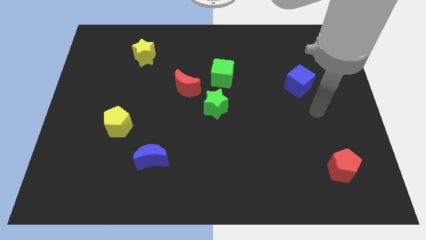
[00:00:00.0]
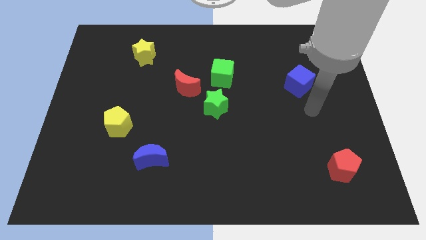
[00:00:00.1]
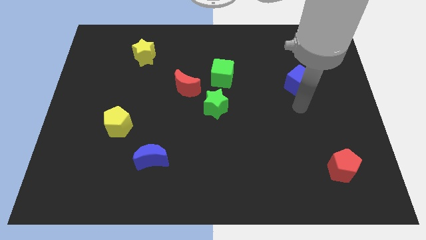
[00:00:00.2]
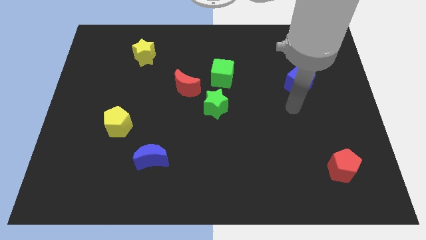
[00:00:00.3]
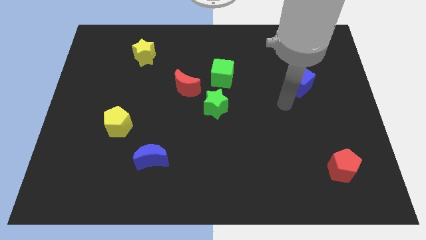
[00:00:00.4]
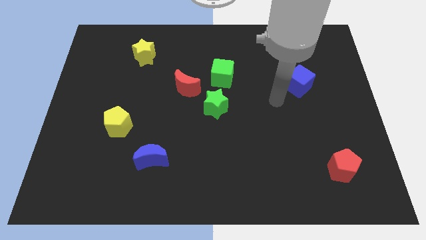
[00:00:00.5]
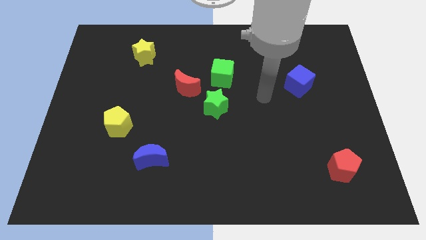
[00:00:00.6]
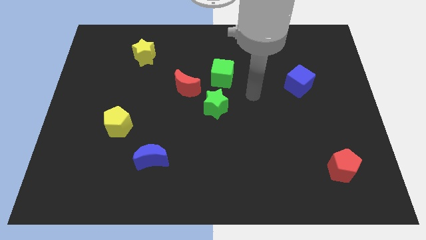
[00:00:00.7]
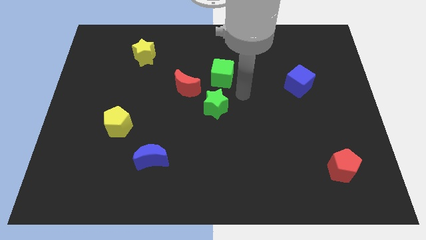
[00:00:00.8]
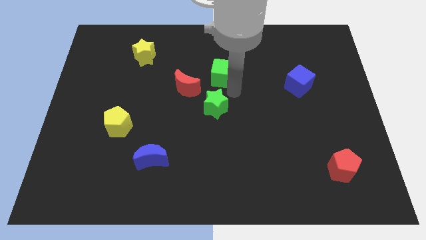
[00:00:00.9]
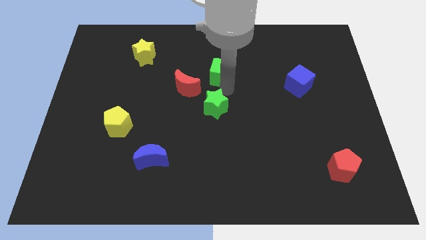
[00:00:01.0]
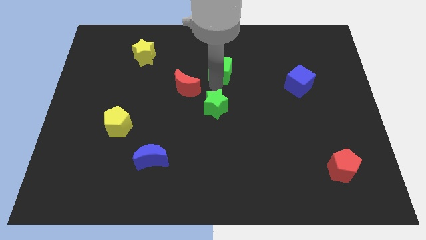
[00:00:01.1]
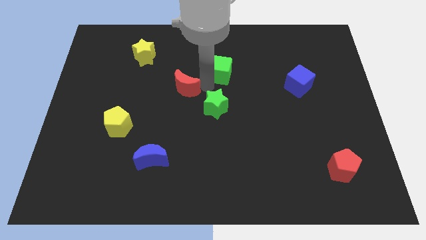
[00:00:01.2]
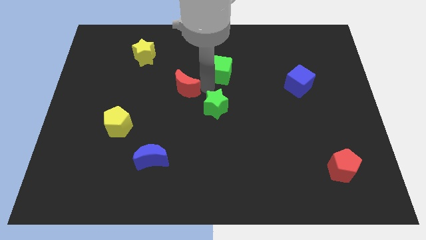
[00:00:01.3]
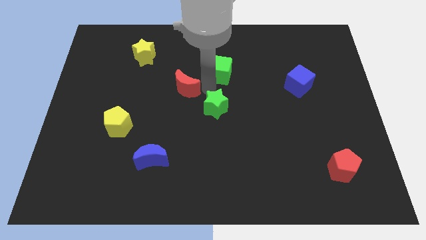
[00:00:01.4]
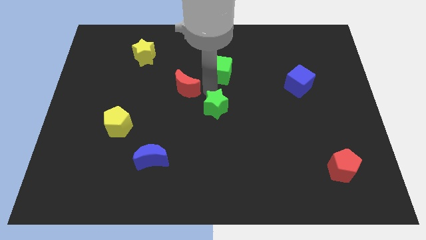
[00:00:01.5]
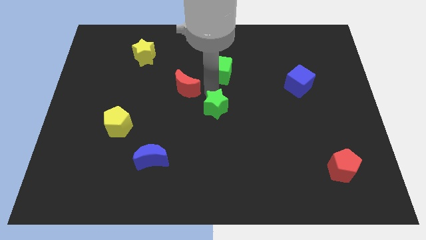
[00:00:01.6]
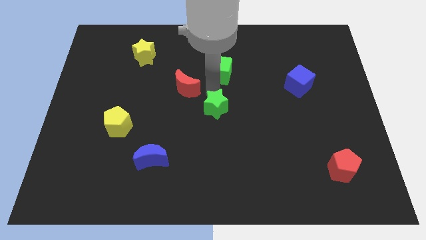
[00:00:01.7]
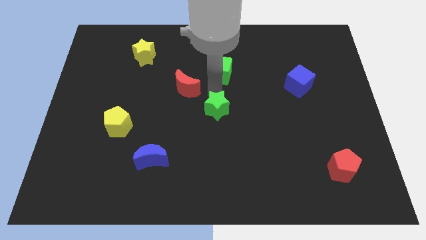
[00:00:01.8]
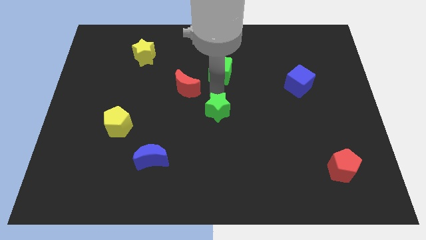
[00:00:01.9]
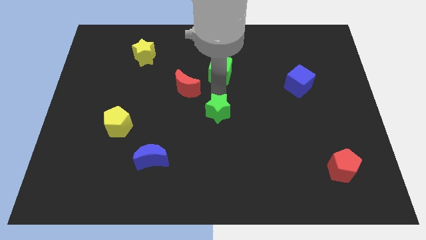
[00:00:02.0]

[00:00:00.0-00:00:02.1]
move the green star away from the red moon and green cube

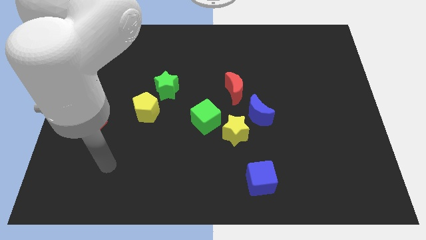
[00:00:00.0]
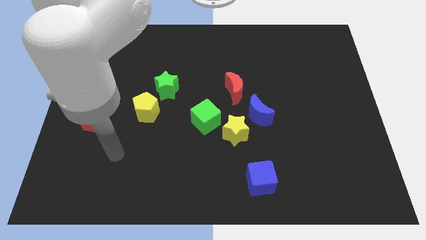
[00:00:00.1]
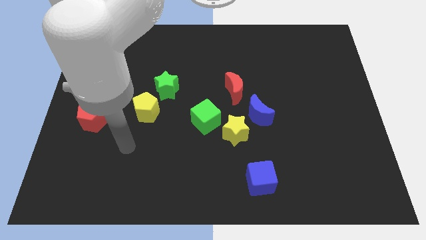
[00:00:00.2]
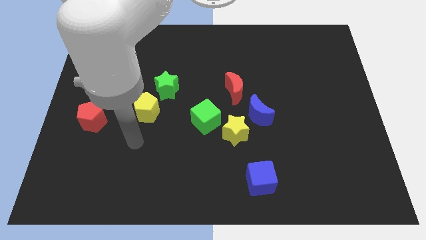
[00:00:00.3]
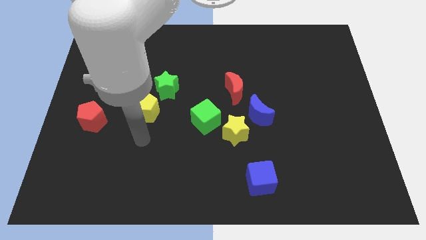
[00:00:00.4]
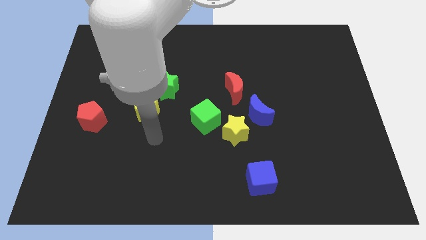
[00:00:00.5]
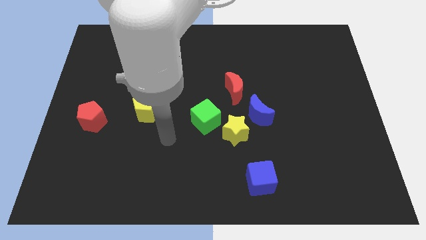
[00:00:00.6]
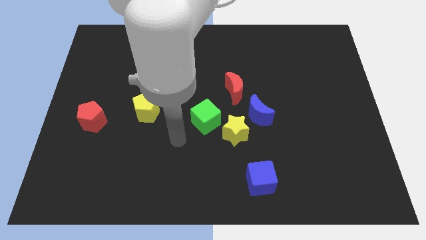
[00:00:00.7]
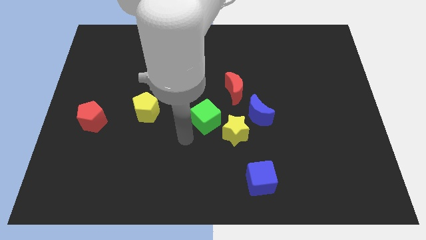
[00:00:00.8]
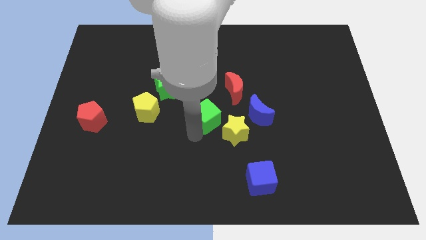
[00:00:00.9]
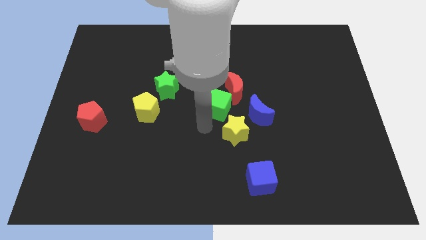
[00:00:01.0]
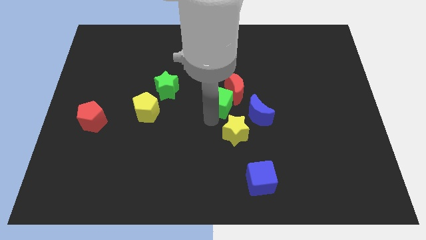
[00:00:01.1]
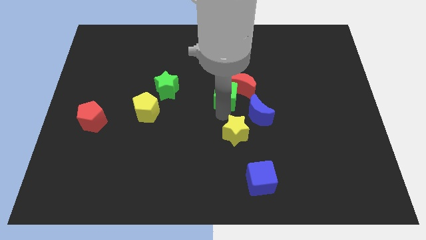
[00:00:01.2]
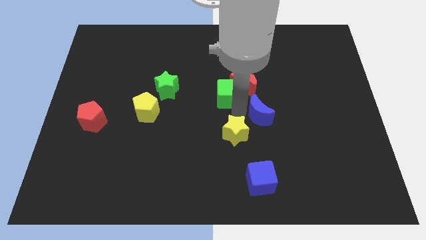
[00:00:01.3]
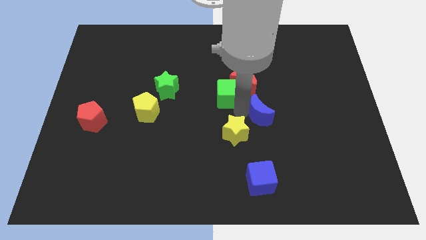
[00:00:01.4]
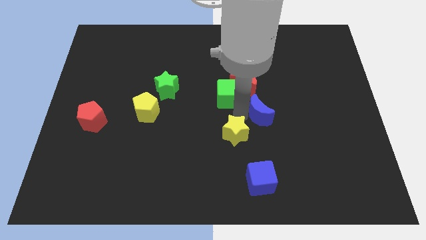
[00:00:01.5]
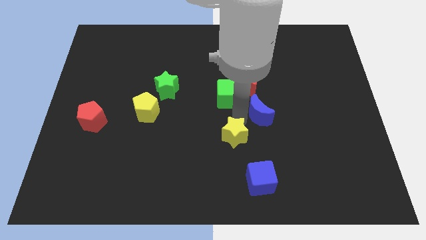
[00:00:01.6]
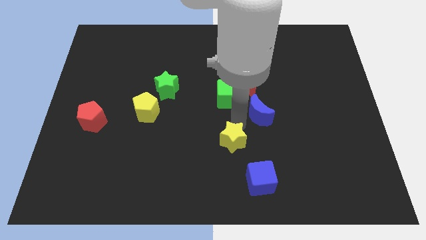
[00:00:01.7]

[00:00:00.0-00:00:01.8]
move the yellow star away from the blue moon and green cube

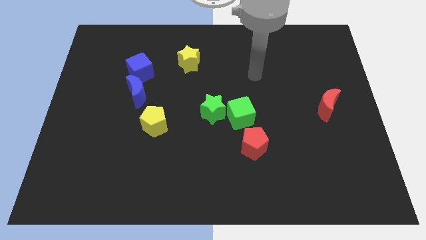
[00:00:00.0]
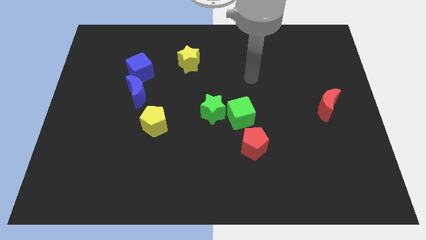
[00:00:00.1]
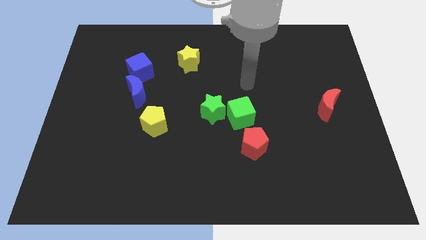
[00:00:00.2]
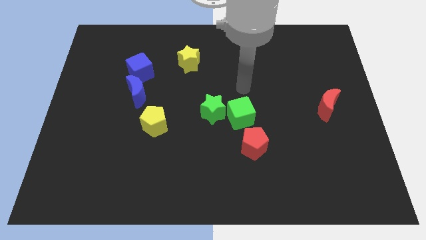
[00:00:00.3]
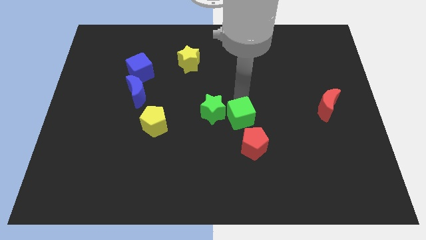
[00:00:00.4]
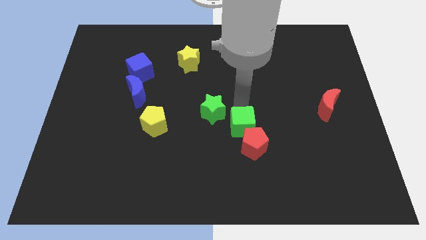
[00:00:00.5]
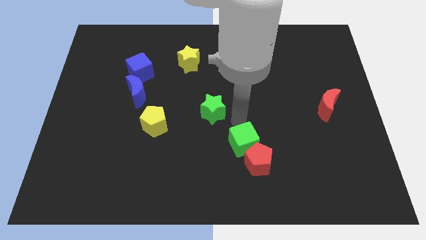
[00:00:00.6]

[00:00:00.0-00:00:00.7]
pull the green star apart from the green cube

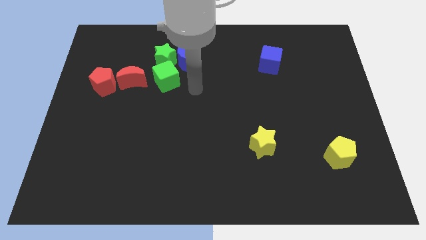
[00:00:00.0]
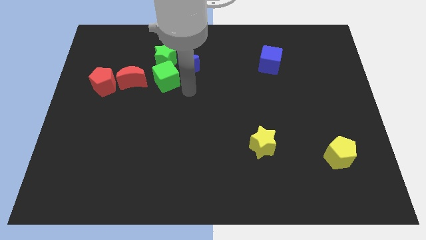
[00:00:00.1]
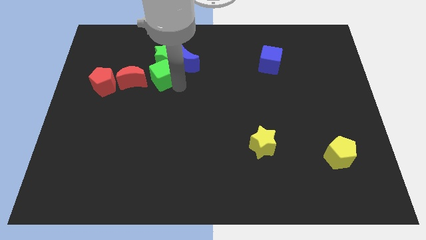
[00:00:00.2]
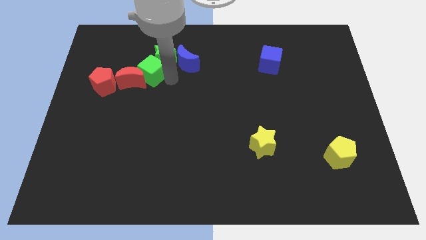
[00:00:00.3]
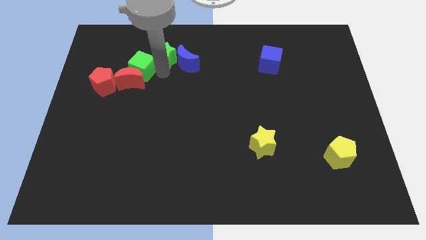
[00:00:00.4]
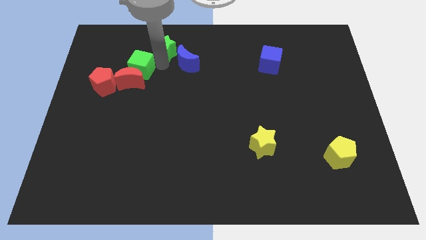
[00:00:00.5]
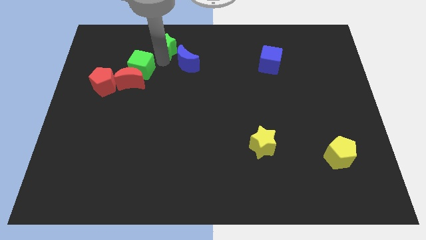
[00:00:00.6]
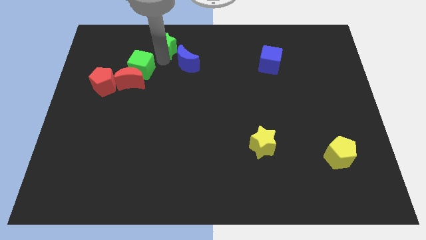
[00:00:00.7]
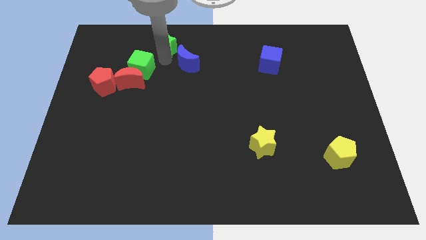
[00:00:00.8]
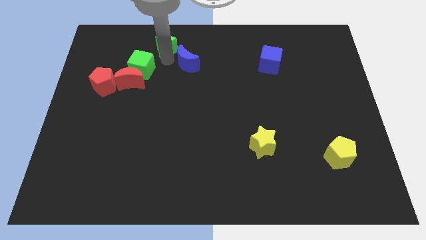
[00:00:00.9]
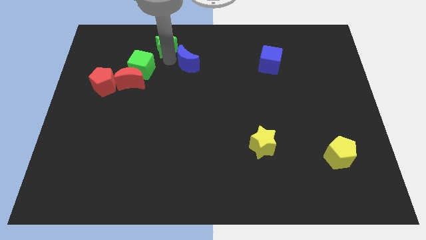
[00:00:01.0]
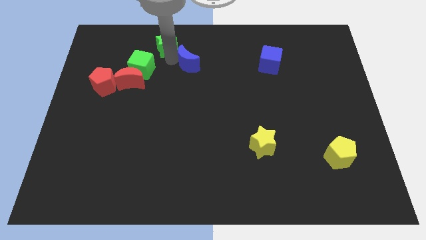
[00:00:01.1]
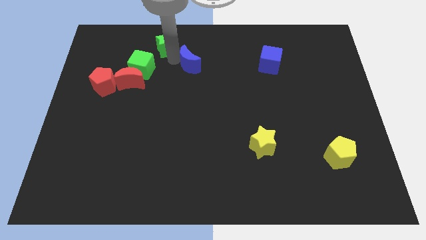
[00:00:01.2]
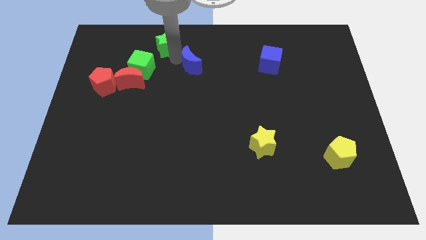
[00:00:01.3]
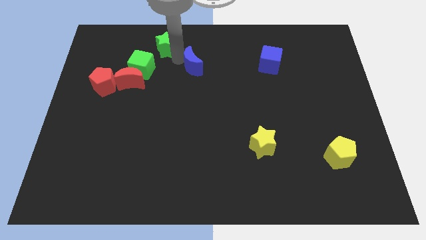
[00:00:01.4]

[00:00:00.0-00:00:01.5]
separate the blue moon from the green star and green cube

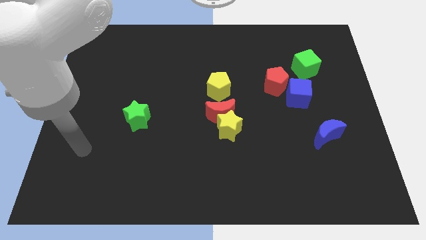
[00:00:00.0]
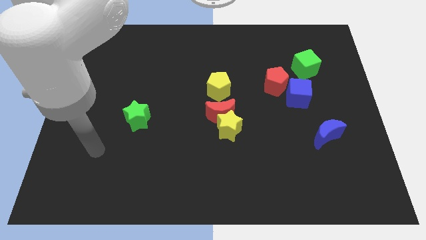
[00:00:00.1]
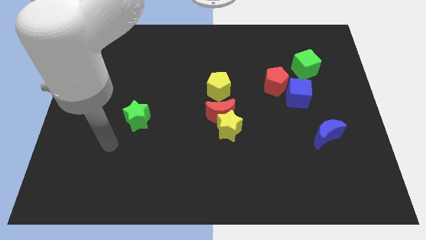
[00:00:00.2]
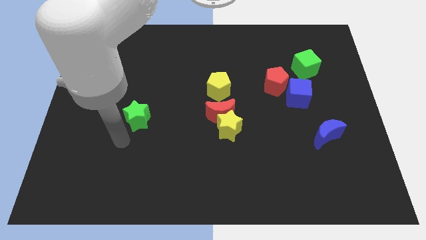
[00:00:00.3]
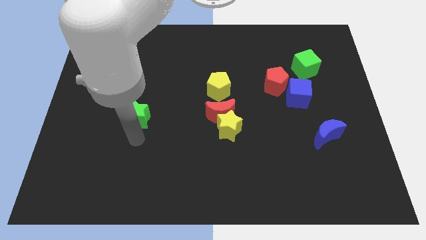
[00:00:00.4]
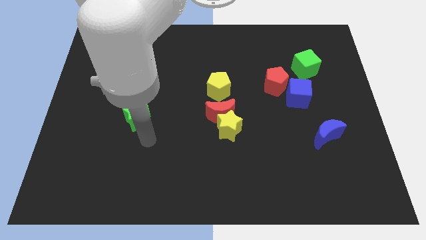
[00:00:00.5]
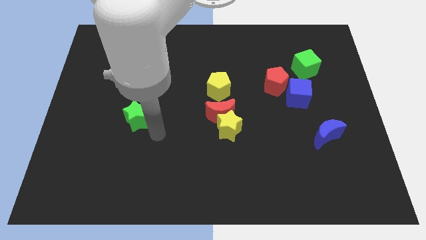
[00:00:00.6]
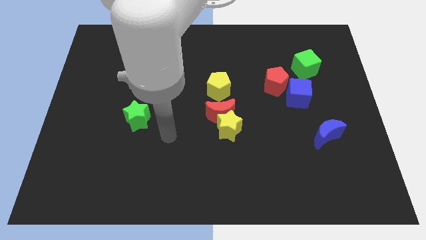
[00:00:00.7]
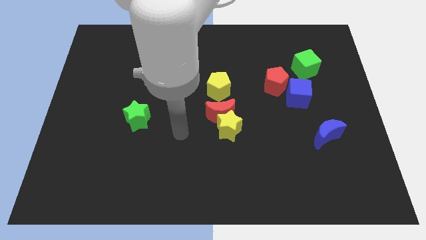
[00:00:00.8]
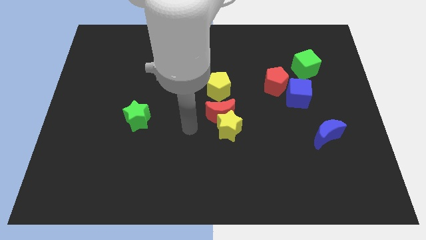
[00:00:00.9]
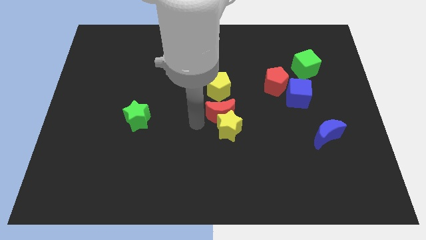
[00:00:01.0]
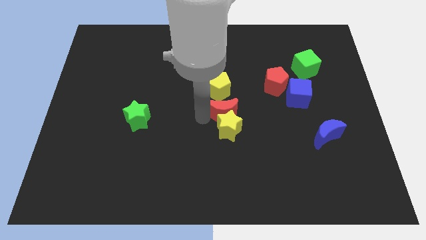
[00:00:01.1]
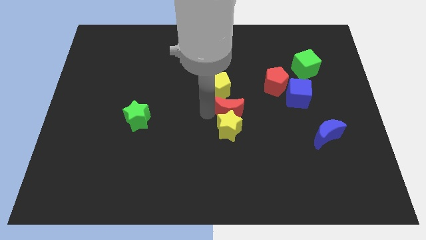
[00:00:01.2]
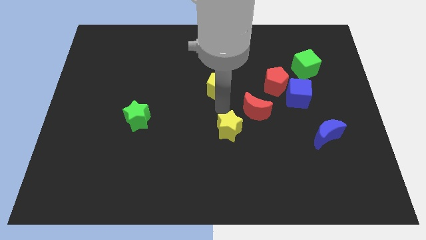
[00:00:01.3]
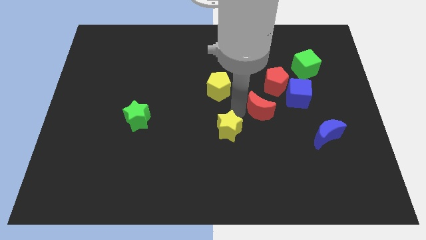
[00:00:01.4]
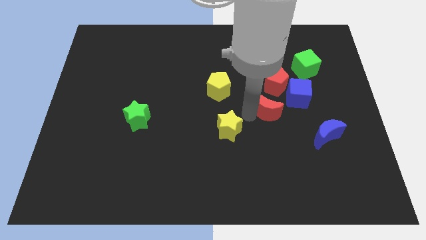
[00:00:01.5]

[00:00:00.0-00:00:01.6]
move the yellow star away from the red moon

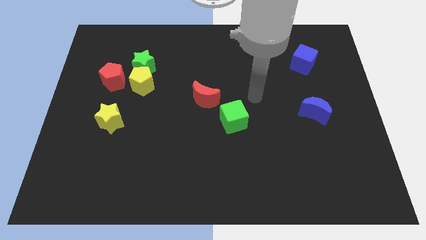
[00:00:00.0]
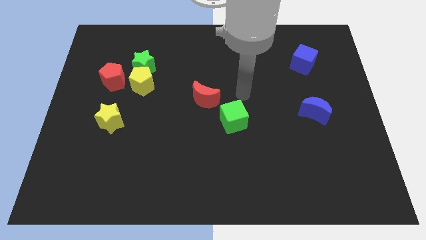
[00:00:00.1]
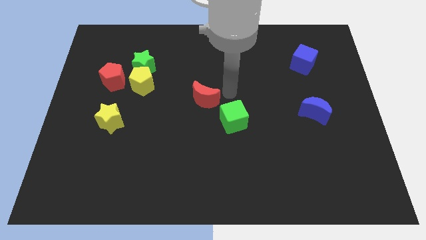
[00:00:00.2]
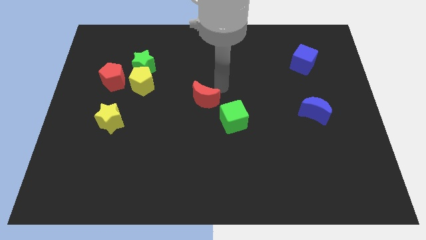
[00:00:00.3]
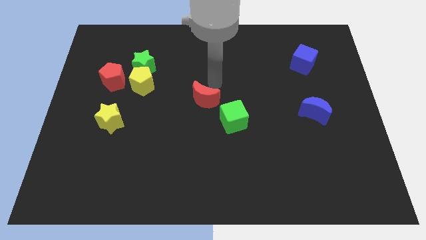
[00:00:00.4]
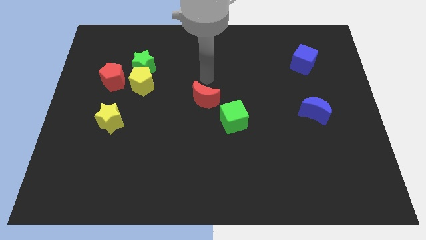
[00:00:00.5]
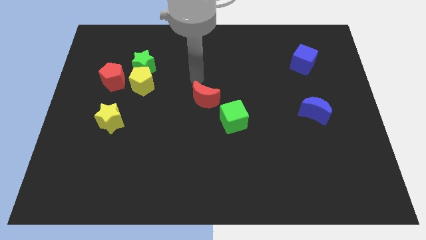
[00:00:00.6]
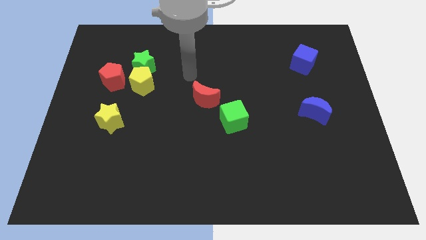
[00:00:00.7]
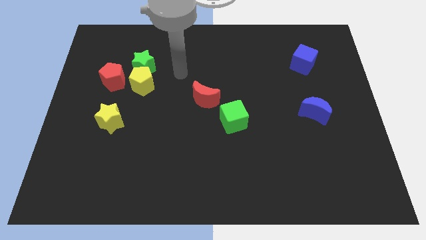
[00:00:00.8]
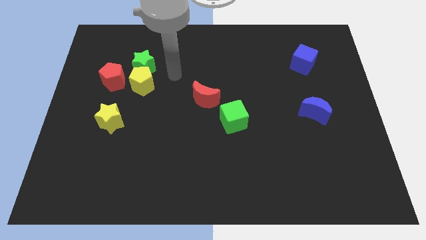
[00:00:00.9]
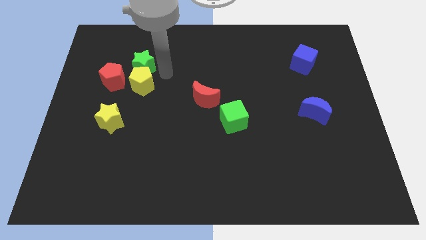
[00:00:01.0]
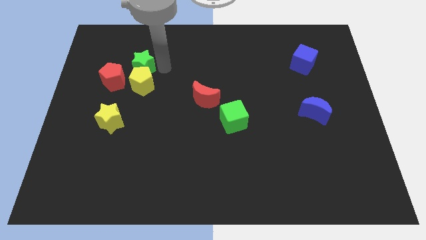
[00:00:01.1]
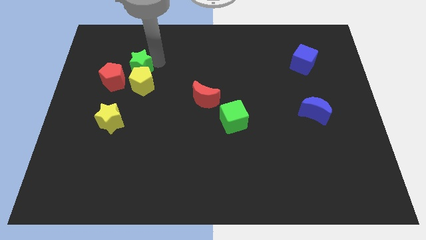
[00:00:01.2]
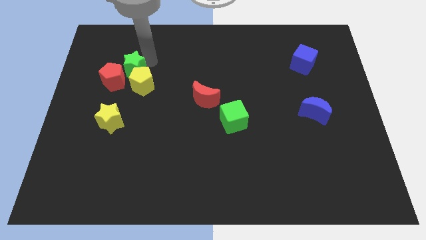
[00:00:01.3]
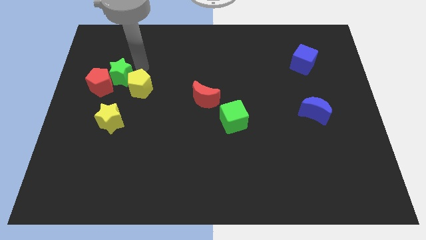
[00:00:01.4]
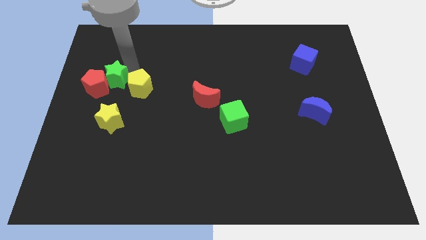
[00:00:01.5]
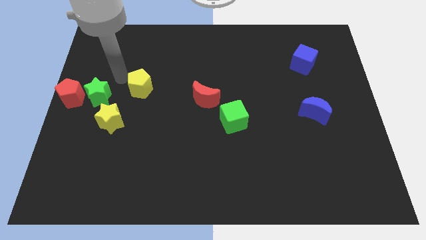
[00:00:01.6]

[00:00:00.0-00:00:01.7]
move the yellow pentagon away from the green star and red pentagon
